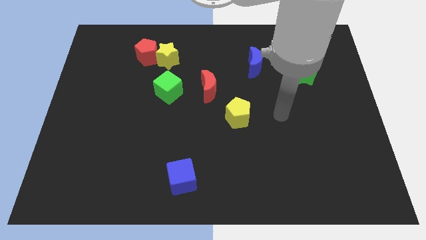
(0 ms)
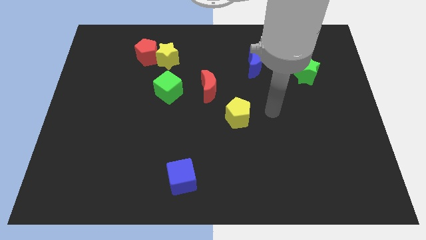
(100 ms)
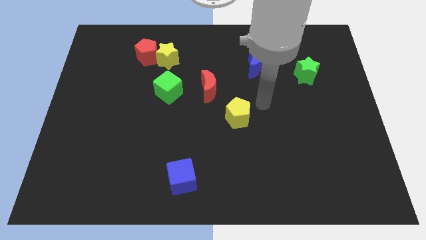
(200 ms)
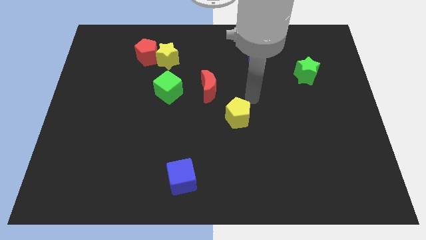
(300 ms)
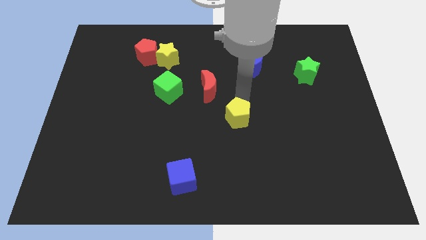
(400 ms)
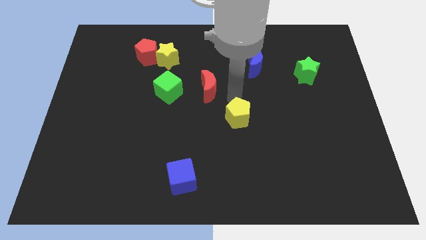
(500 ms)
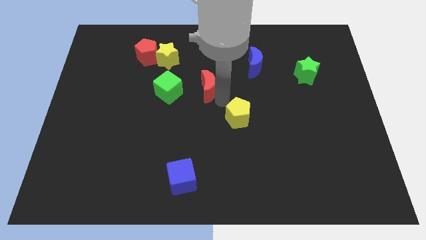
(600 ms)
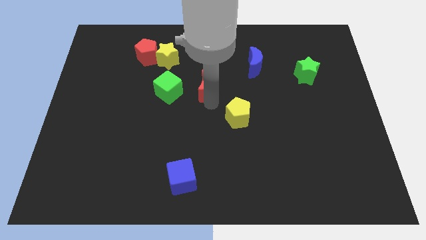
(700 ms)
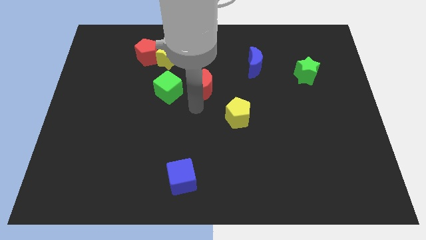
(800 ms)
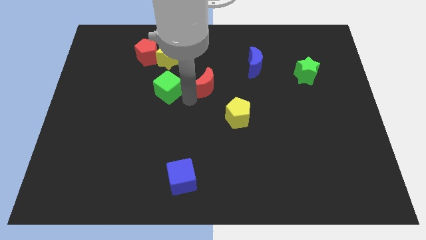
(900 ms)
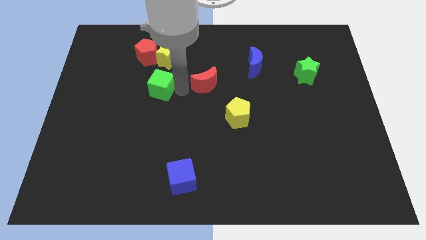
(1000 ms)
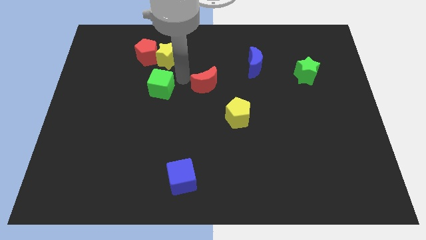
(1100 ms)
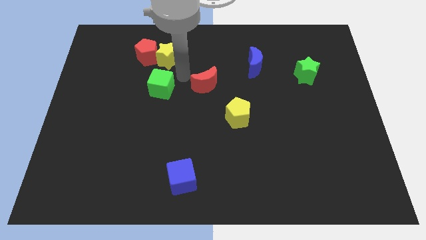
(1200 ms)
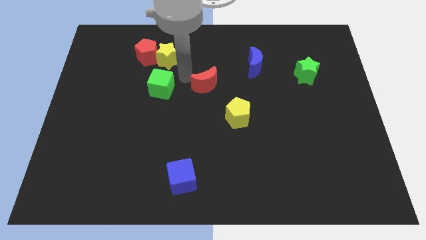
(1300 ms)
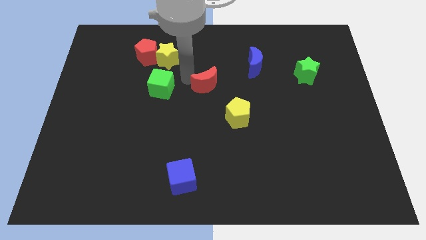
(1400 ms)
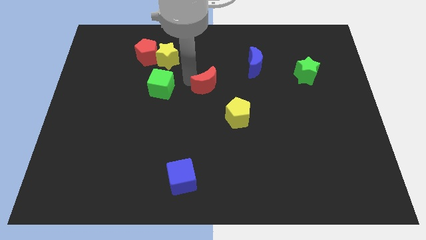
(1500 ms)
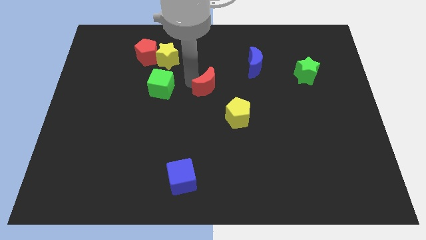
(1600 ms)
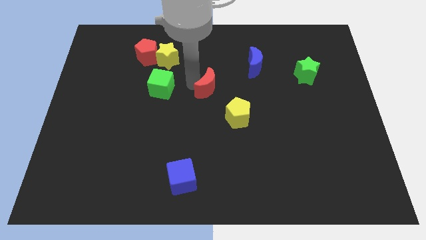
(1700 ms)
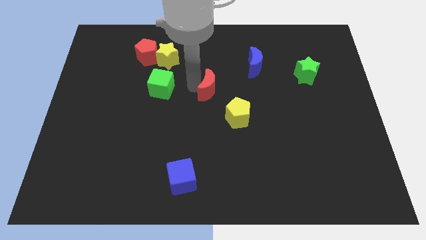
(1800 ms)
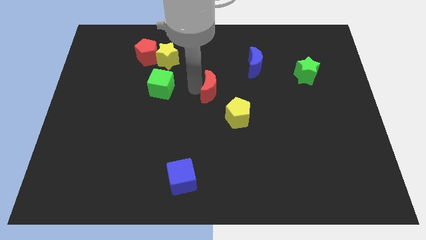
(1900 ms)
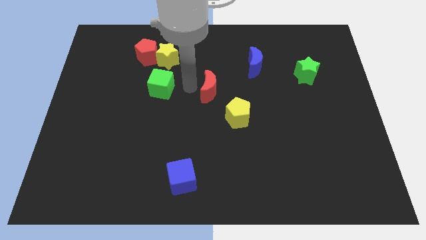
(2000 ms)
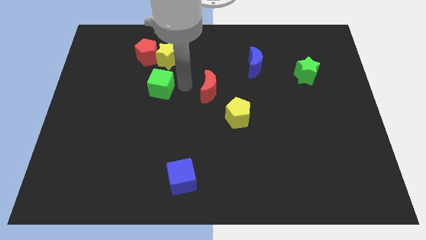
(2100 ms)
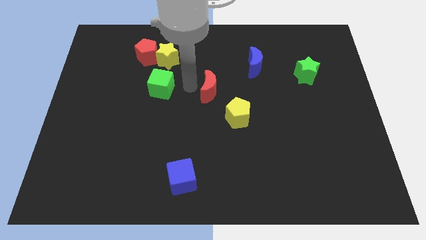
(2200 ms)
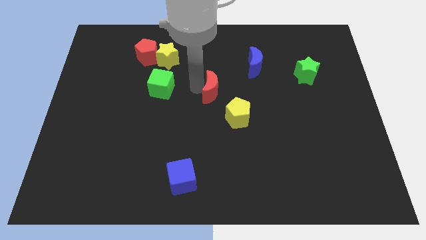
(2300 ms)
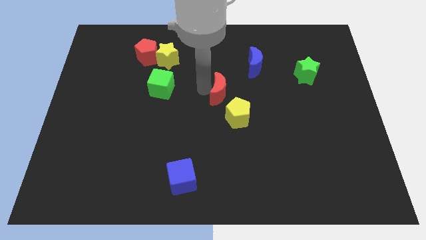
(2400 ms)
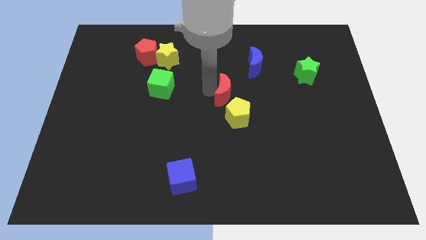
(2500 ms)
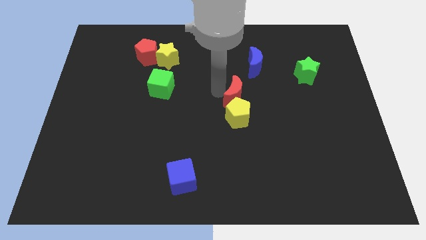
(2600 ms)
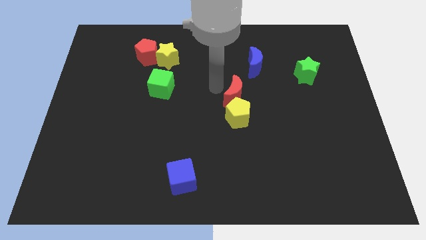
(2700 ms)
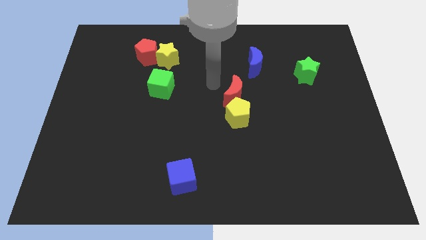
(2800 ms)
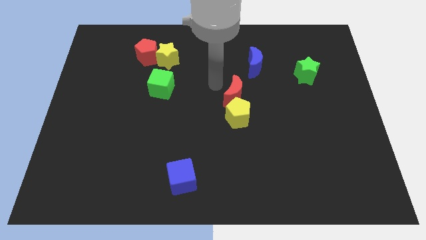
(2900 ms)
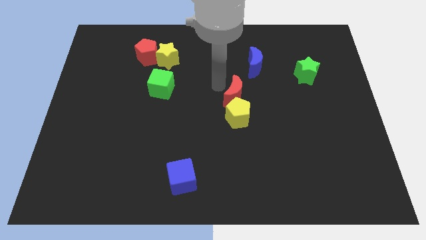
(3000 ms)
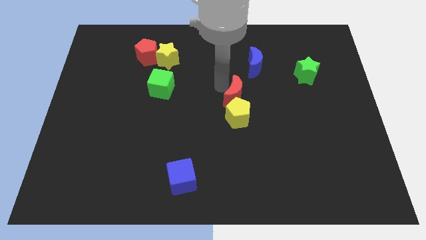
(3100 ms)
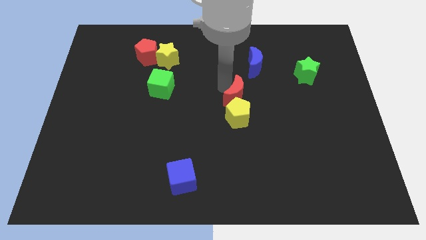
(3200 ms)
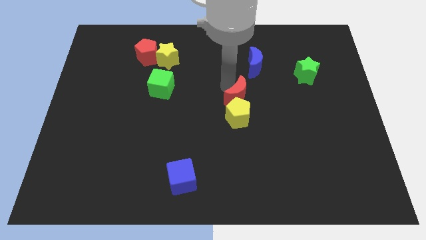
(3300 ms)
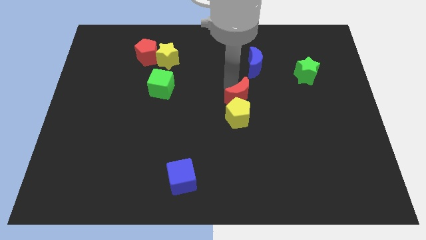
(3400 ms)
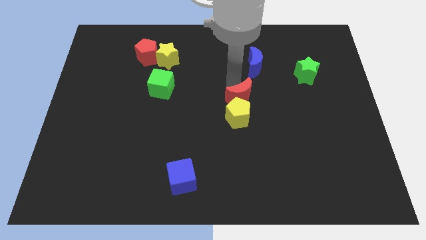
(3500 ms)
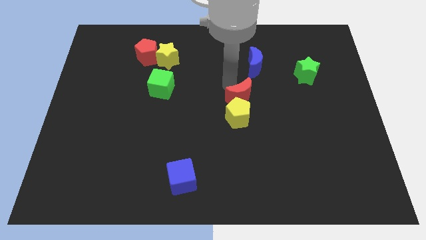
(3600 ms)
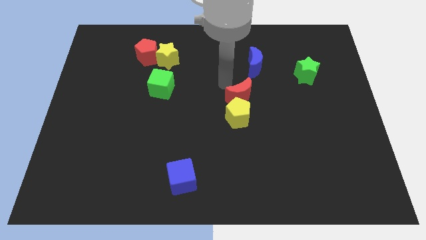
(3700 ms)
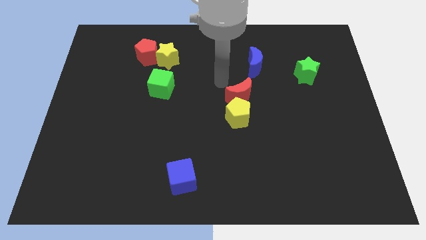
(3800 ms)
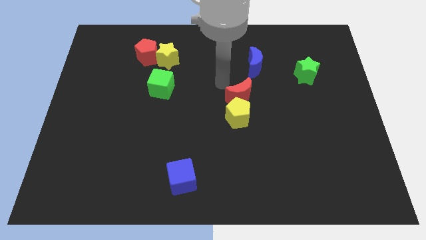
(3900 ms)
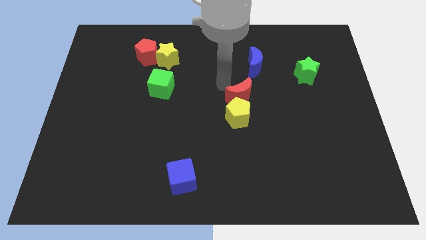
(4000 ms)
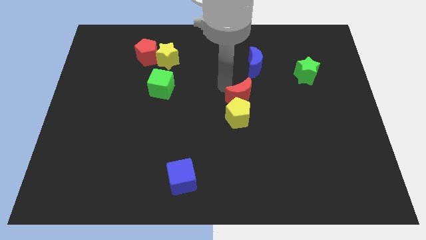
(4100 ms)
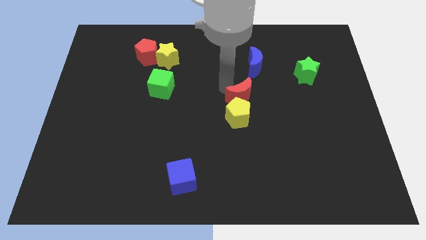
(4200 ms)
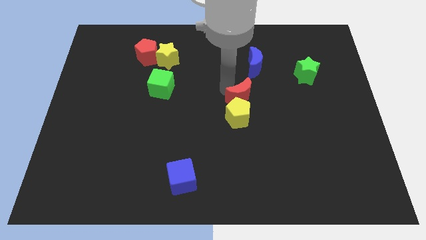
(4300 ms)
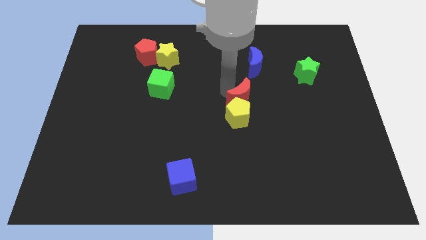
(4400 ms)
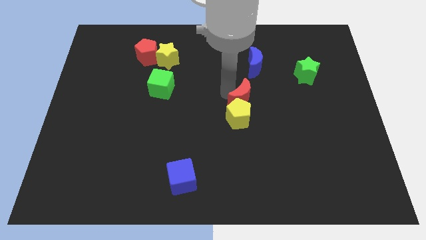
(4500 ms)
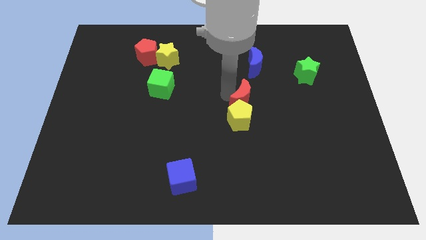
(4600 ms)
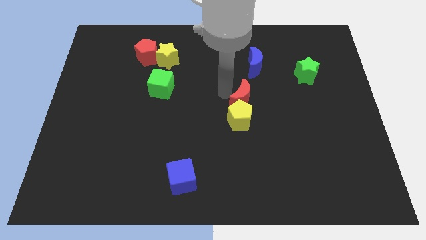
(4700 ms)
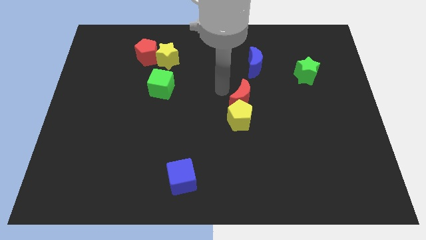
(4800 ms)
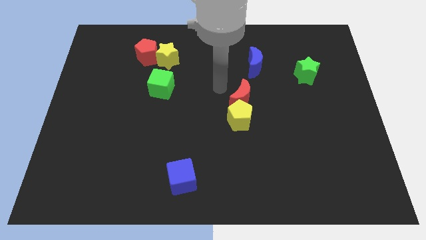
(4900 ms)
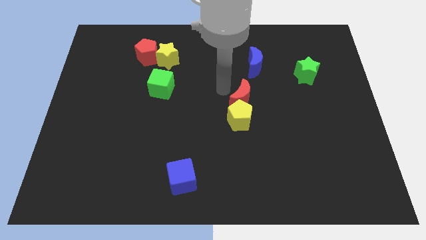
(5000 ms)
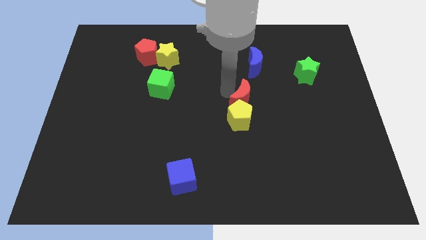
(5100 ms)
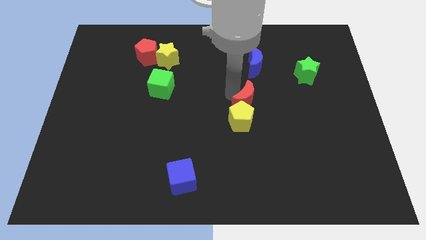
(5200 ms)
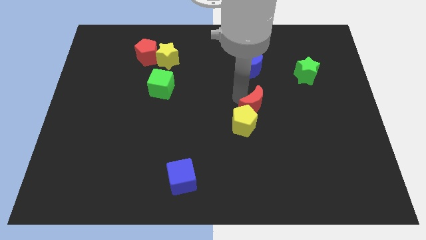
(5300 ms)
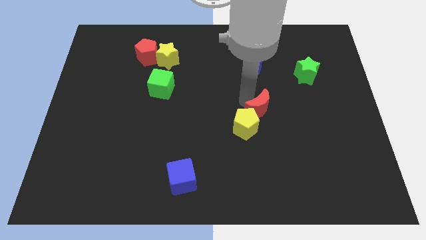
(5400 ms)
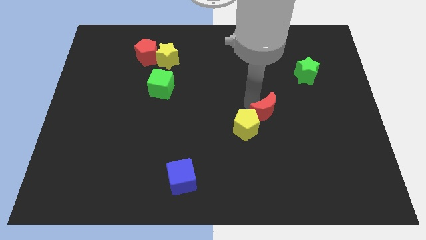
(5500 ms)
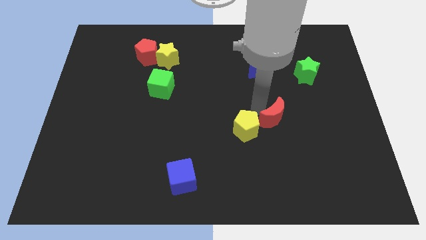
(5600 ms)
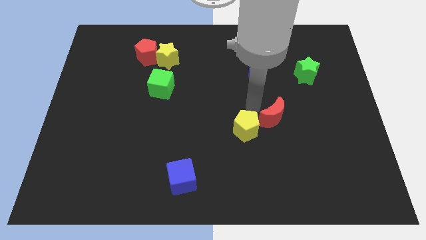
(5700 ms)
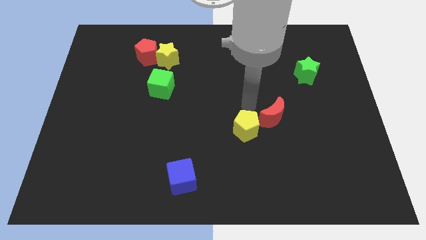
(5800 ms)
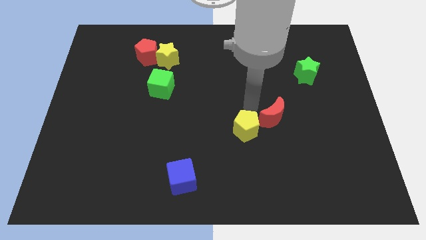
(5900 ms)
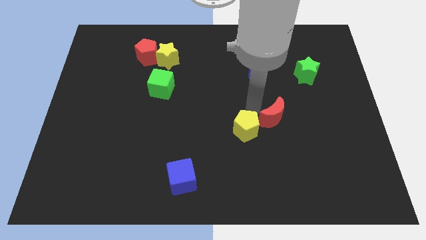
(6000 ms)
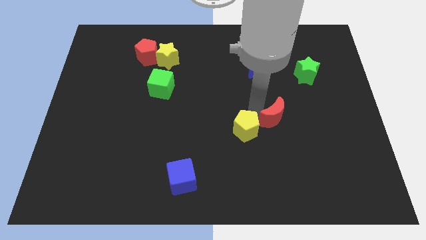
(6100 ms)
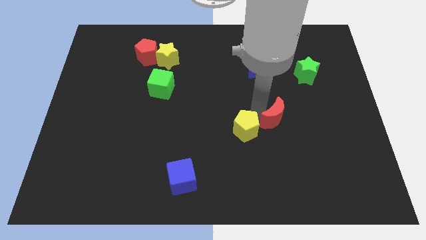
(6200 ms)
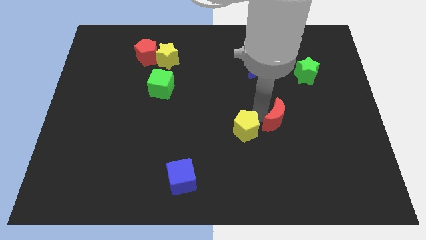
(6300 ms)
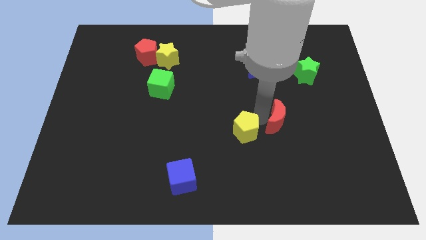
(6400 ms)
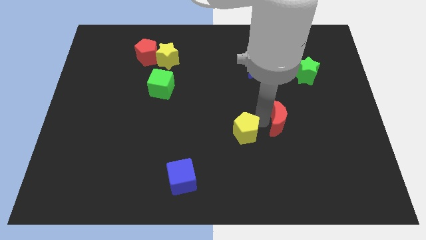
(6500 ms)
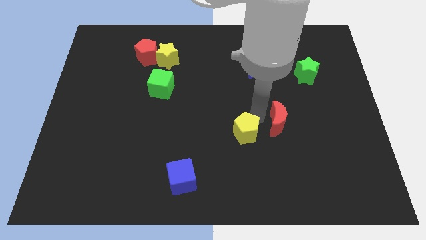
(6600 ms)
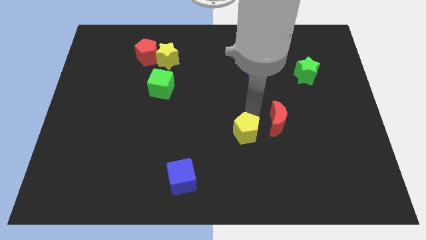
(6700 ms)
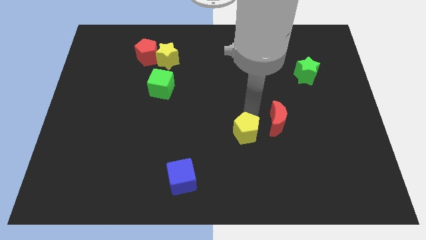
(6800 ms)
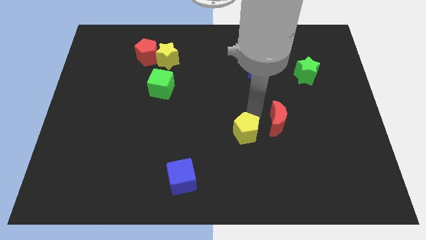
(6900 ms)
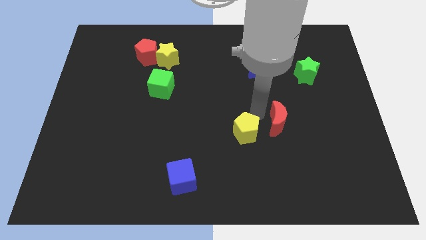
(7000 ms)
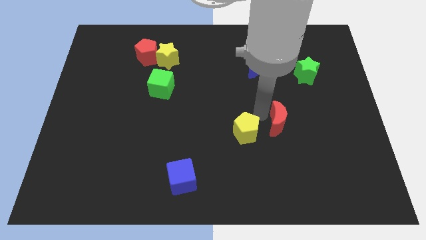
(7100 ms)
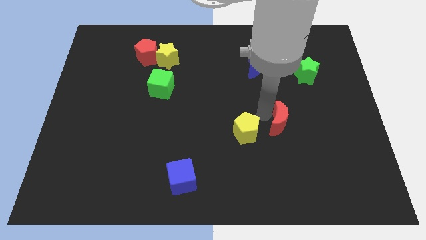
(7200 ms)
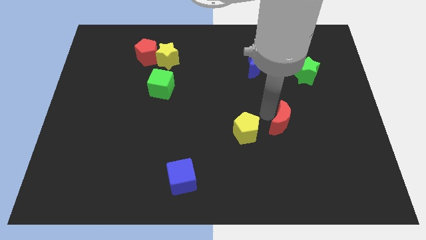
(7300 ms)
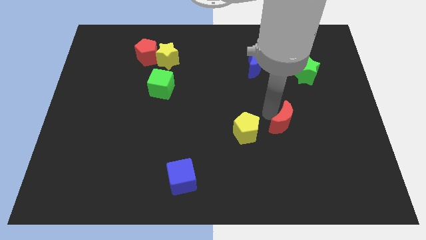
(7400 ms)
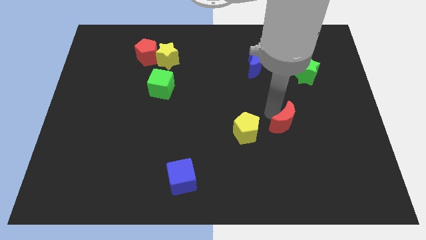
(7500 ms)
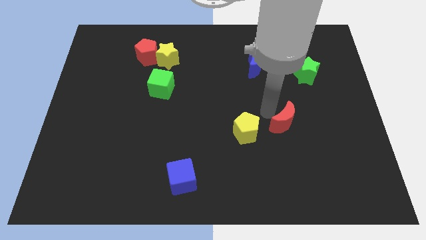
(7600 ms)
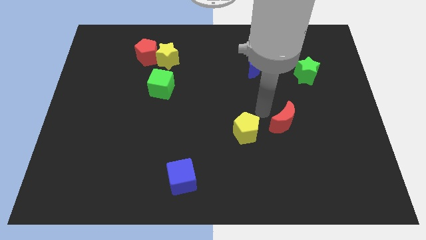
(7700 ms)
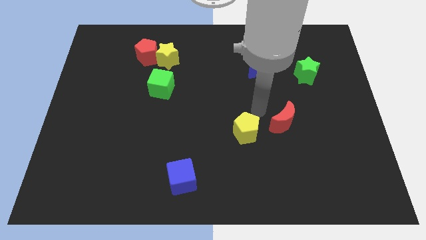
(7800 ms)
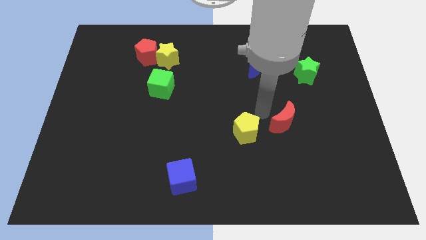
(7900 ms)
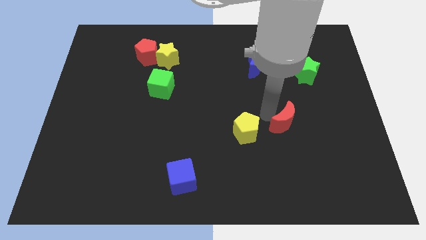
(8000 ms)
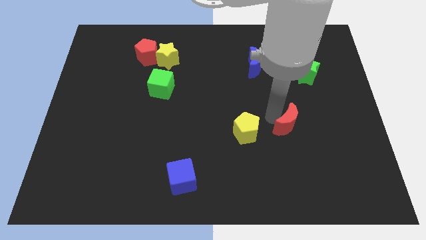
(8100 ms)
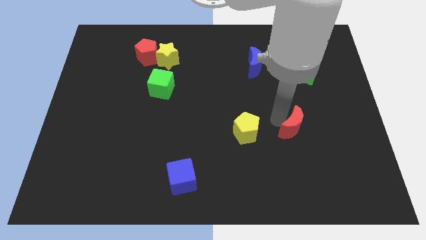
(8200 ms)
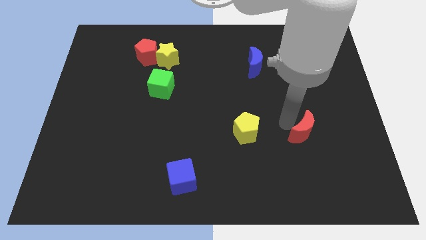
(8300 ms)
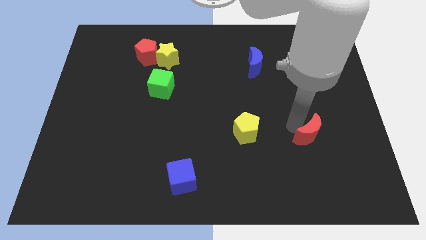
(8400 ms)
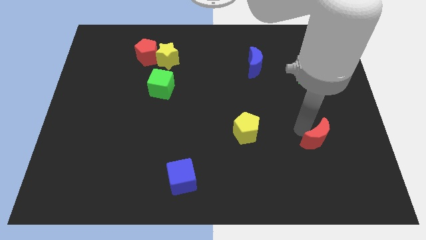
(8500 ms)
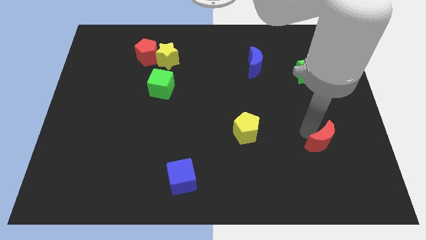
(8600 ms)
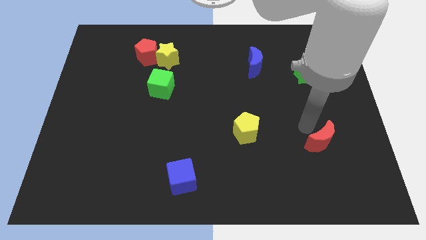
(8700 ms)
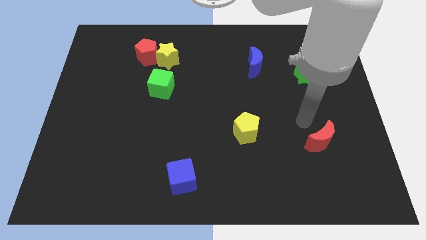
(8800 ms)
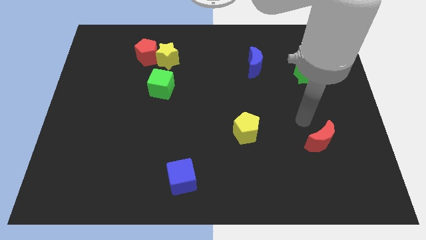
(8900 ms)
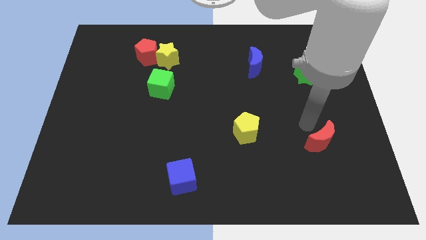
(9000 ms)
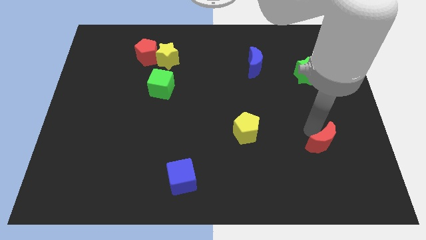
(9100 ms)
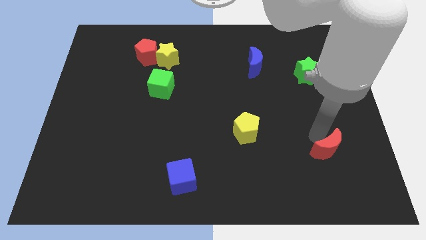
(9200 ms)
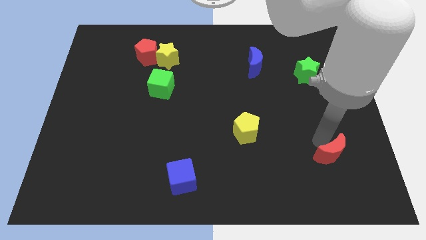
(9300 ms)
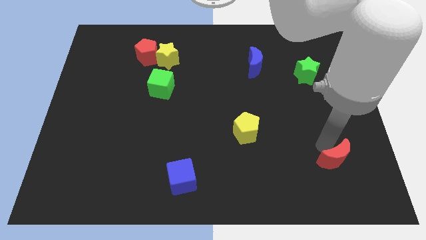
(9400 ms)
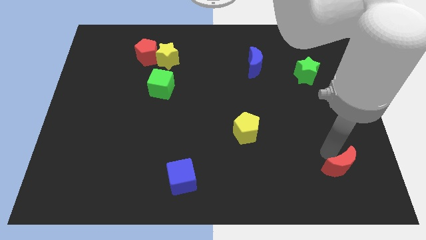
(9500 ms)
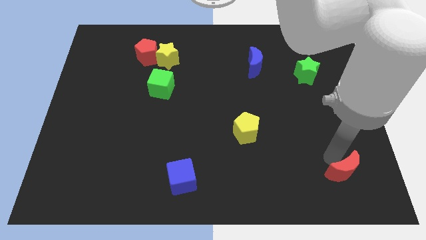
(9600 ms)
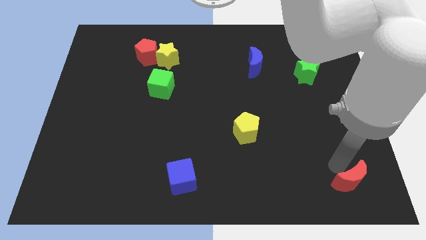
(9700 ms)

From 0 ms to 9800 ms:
put the red moon to the bottom right of the board
